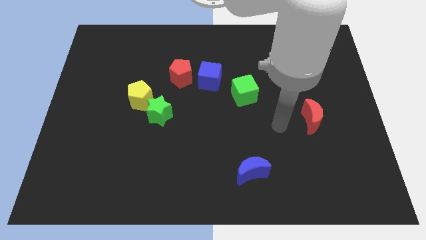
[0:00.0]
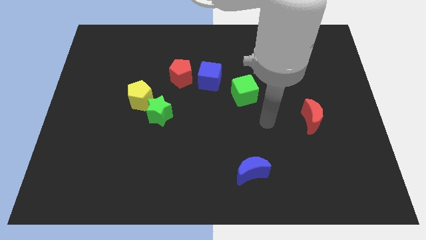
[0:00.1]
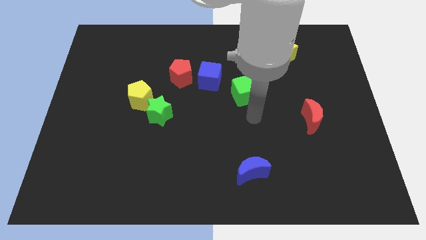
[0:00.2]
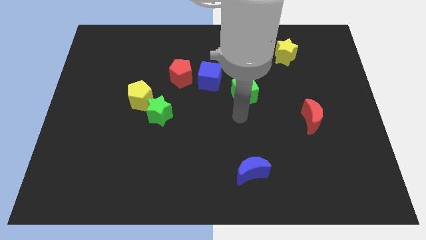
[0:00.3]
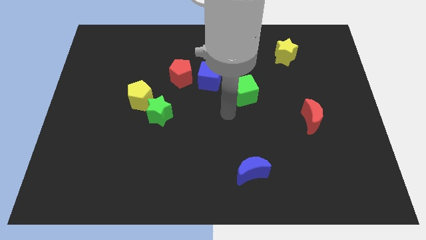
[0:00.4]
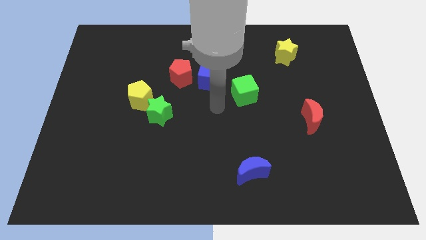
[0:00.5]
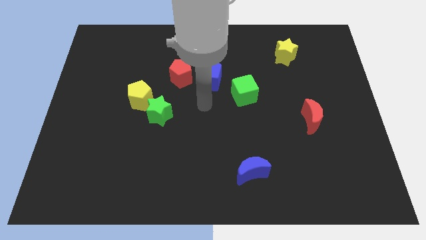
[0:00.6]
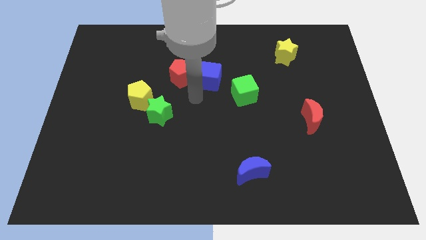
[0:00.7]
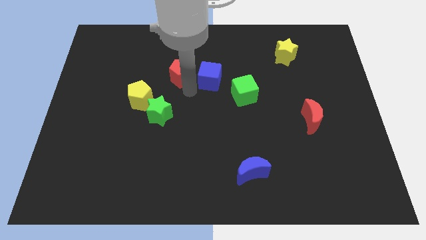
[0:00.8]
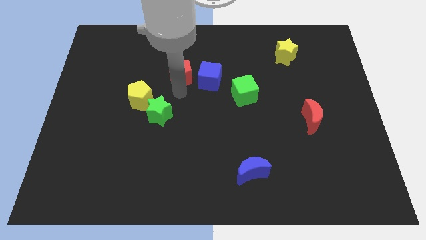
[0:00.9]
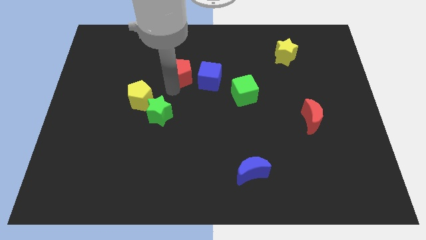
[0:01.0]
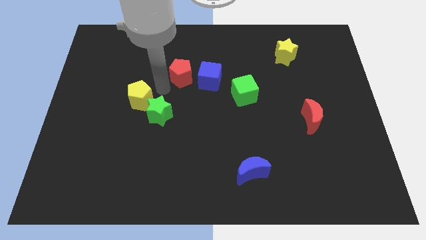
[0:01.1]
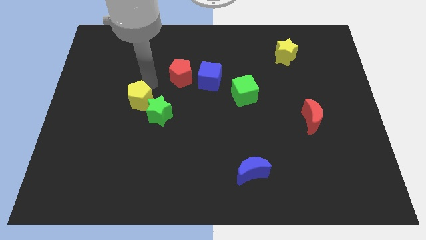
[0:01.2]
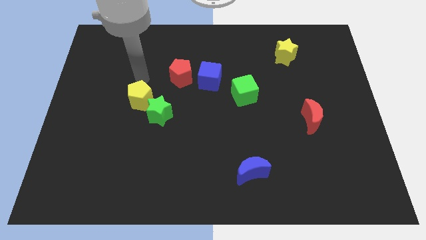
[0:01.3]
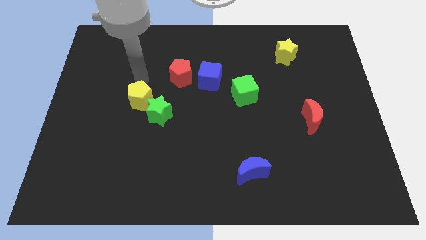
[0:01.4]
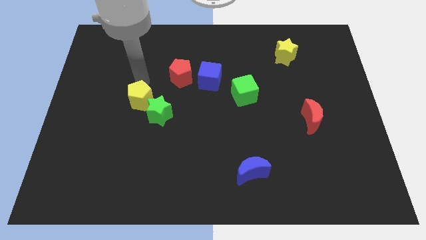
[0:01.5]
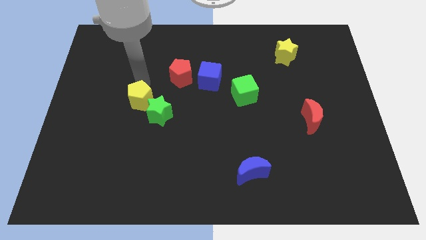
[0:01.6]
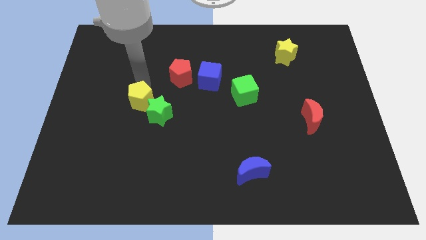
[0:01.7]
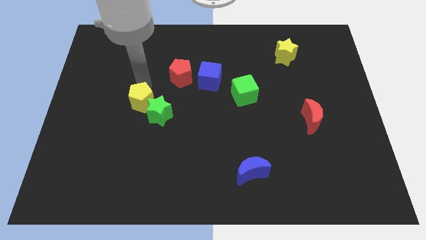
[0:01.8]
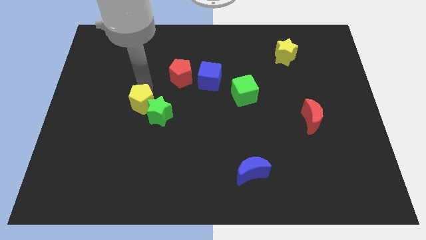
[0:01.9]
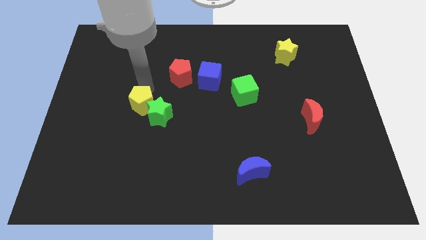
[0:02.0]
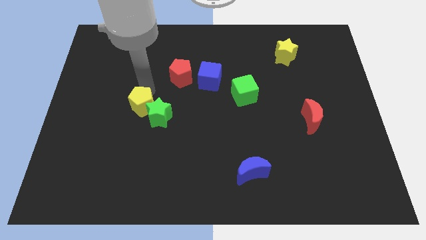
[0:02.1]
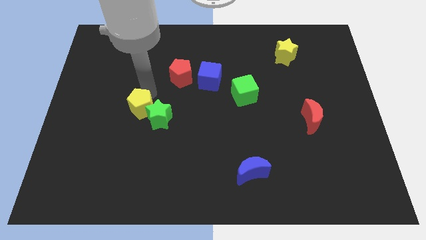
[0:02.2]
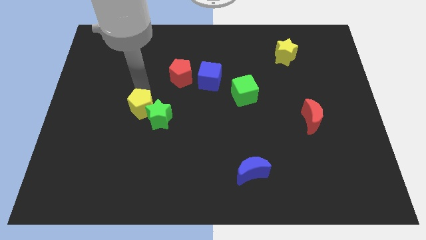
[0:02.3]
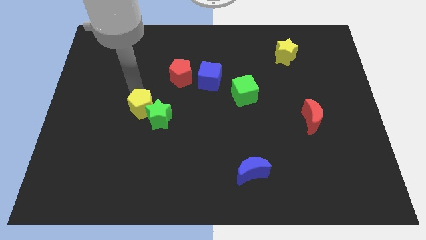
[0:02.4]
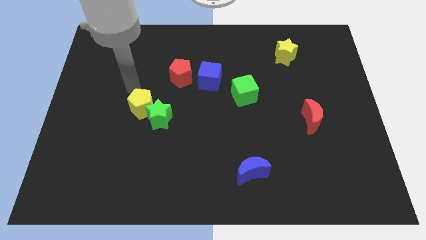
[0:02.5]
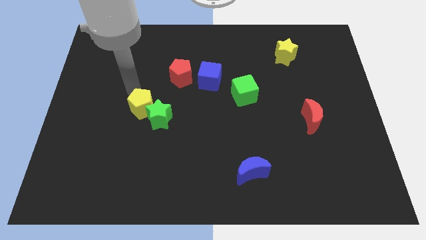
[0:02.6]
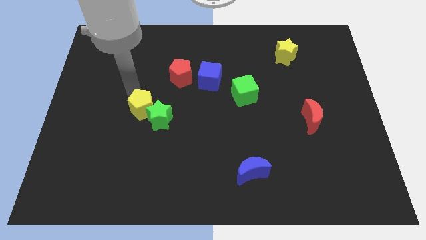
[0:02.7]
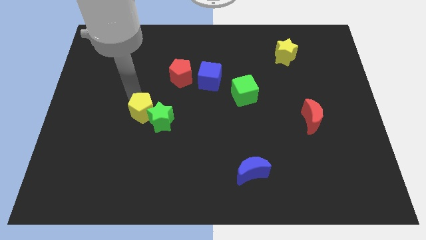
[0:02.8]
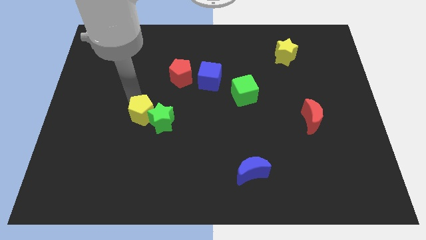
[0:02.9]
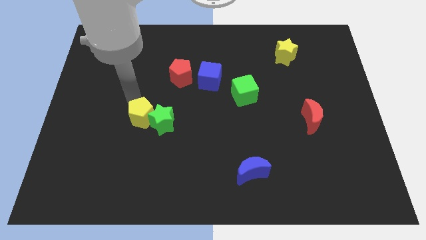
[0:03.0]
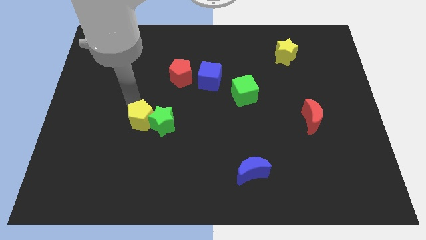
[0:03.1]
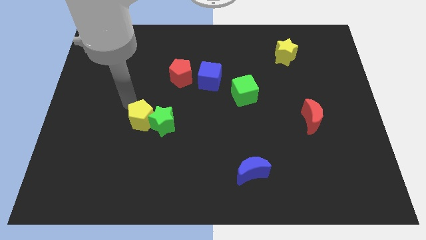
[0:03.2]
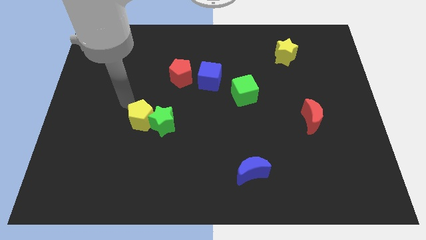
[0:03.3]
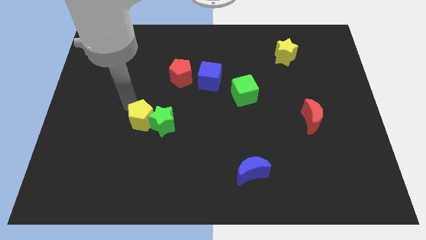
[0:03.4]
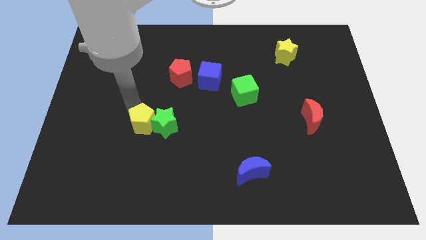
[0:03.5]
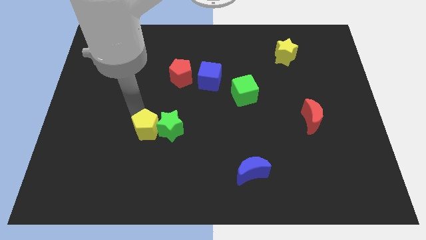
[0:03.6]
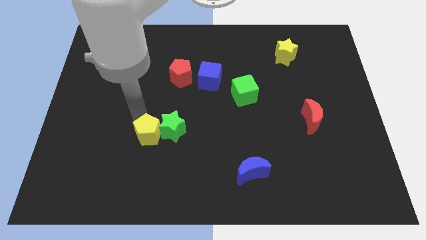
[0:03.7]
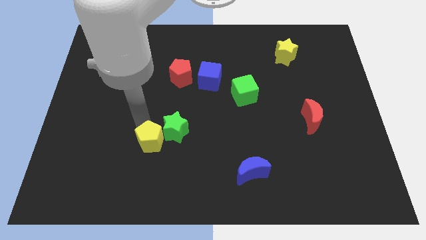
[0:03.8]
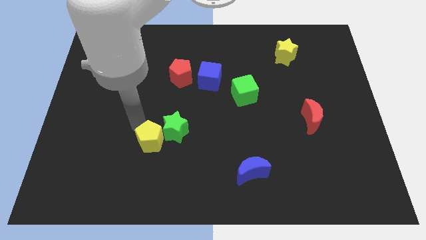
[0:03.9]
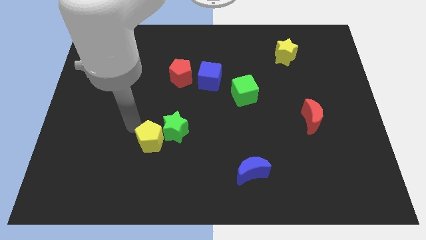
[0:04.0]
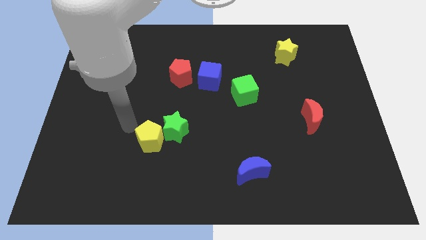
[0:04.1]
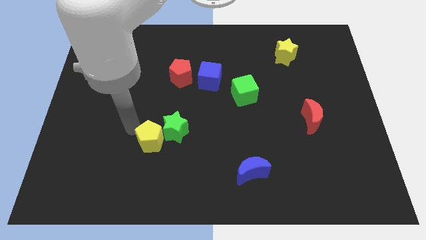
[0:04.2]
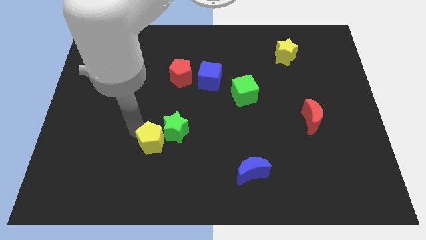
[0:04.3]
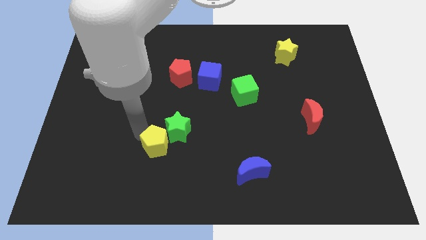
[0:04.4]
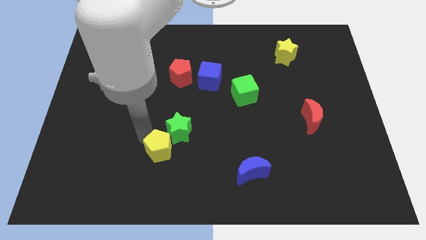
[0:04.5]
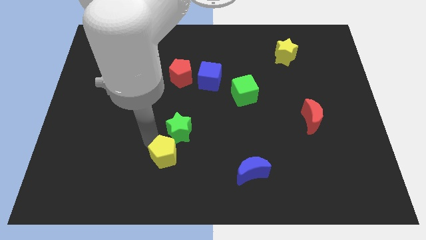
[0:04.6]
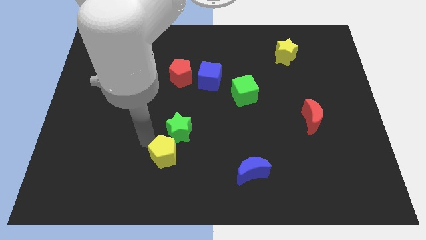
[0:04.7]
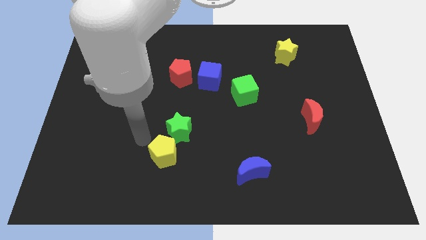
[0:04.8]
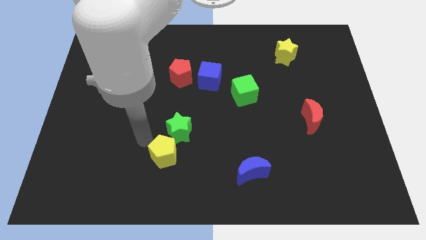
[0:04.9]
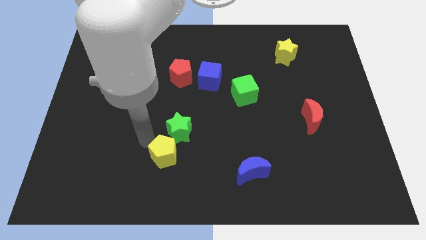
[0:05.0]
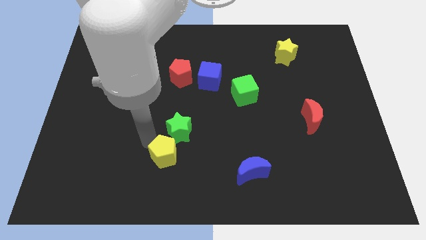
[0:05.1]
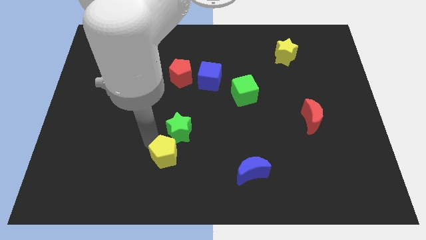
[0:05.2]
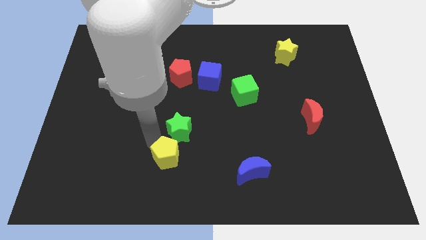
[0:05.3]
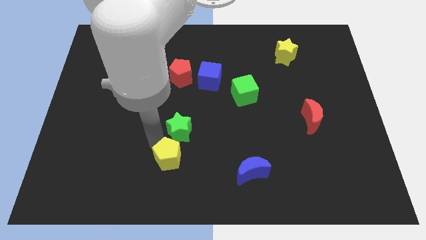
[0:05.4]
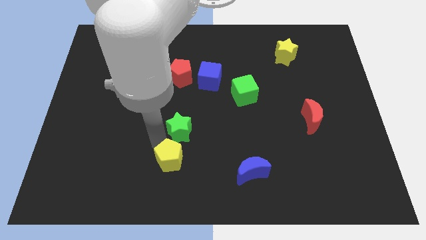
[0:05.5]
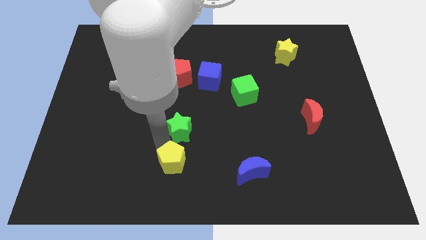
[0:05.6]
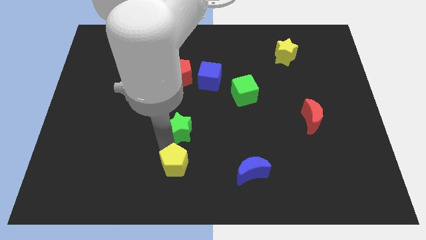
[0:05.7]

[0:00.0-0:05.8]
slide the yellow pentagon to the bottom side
